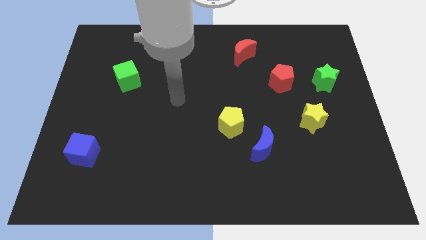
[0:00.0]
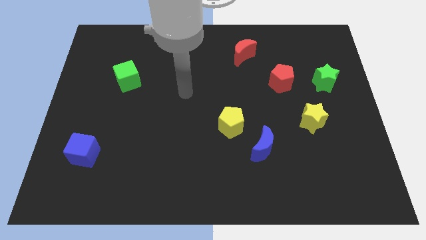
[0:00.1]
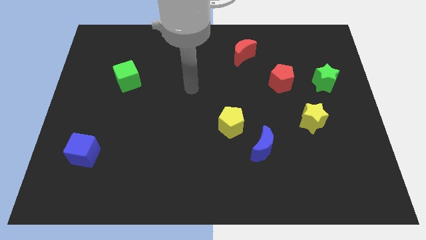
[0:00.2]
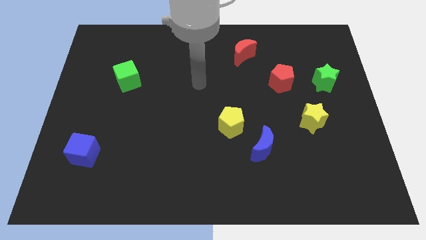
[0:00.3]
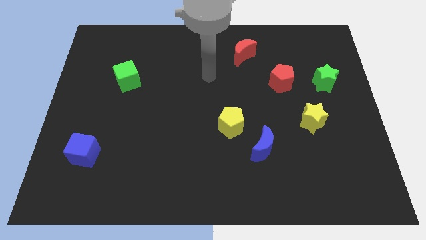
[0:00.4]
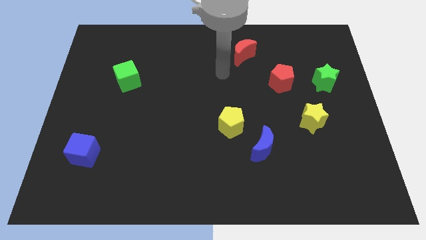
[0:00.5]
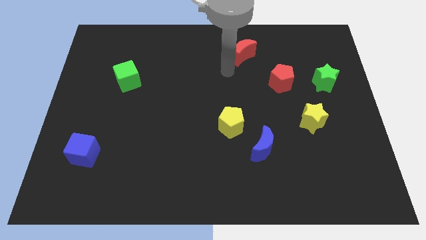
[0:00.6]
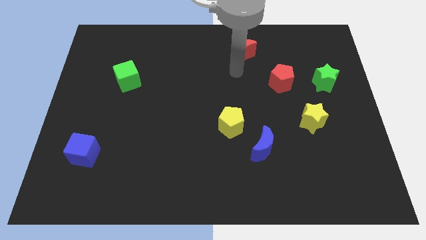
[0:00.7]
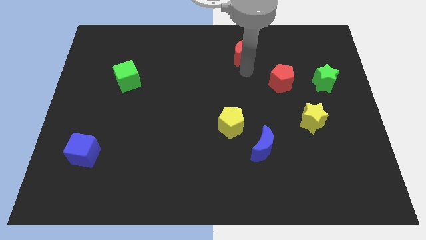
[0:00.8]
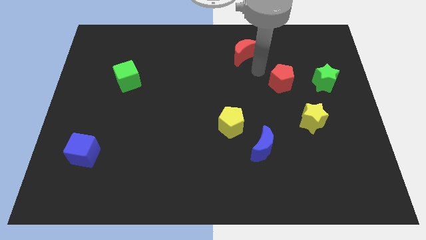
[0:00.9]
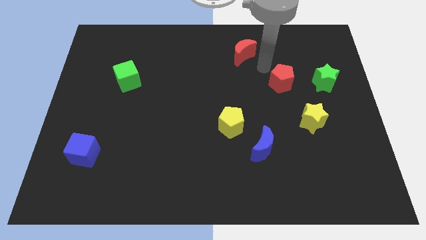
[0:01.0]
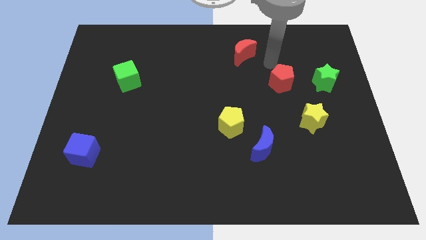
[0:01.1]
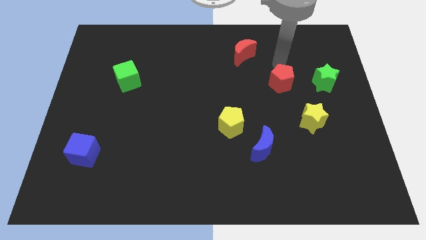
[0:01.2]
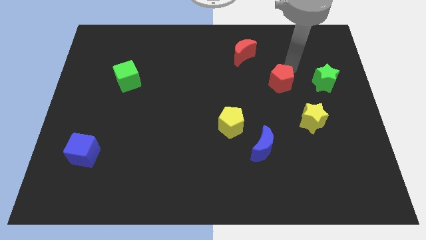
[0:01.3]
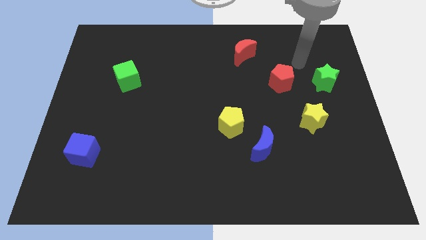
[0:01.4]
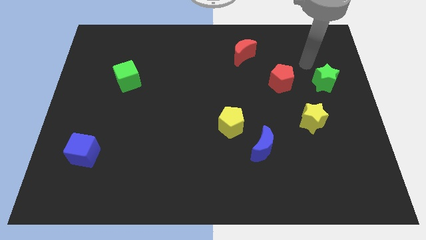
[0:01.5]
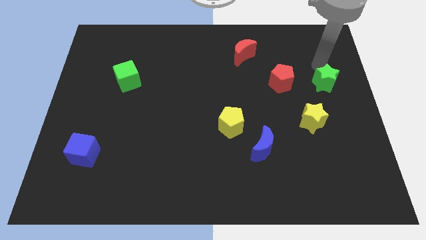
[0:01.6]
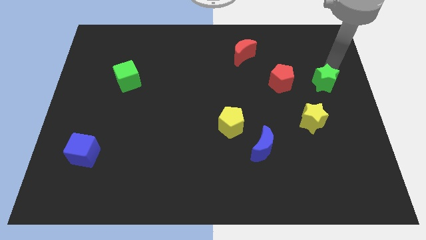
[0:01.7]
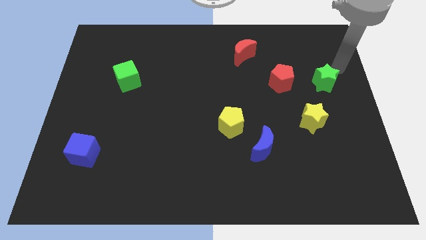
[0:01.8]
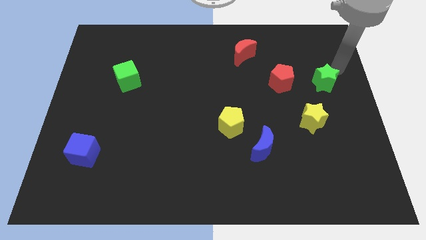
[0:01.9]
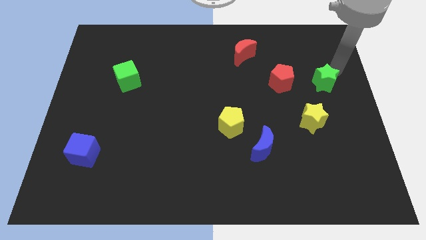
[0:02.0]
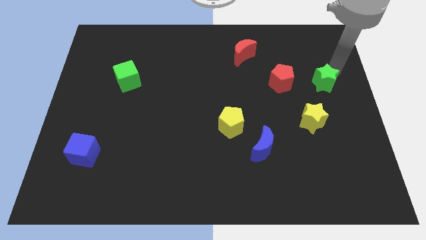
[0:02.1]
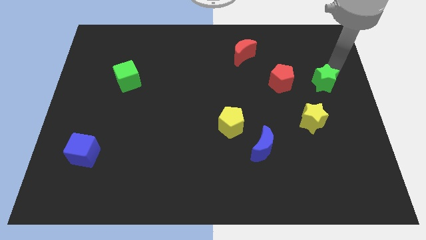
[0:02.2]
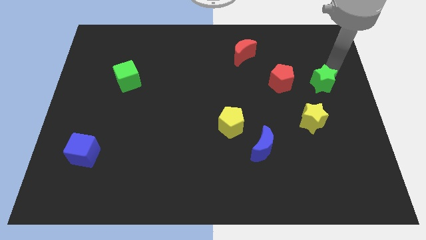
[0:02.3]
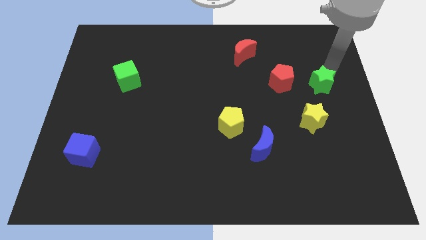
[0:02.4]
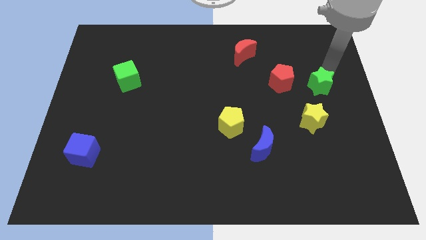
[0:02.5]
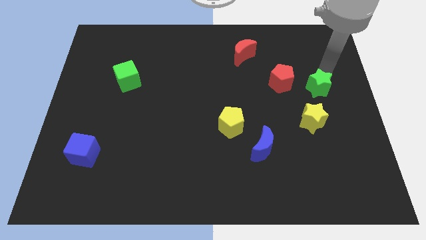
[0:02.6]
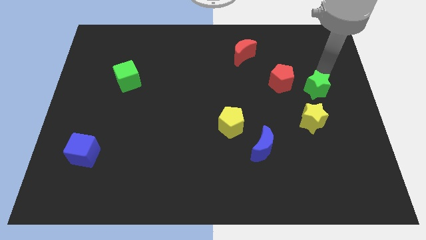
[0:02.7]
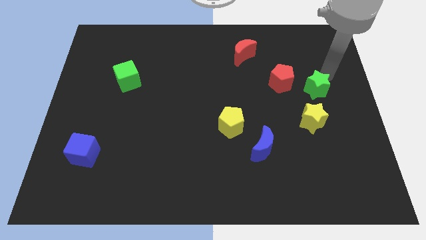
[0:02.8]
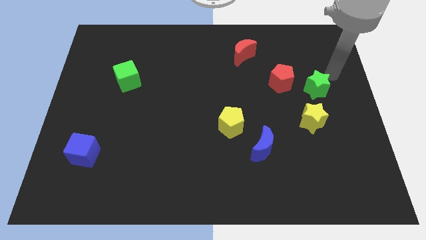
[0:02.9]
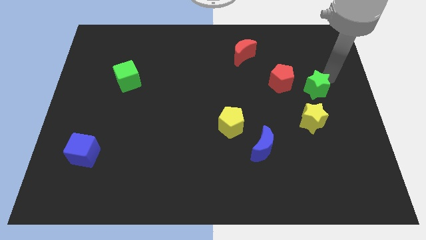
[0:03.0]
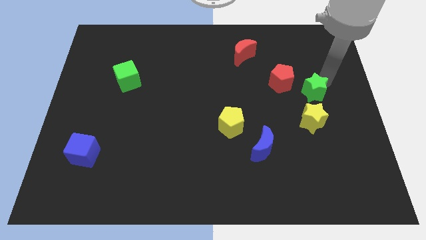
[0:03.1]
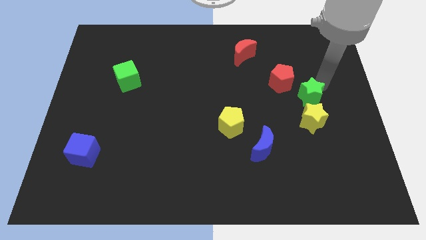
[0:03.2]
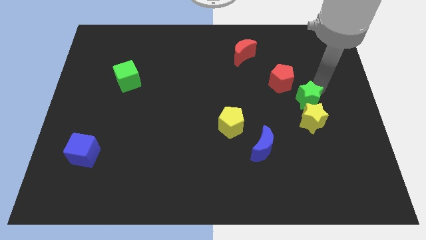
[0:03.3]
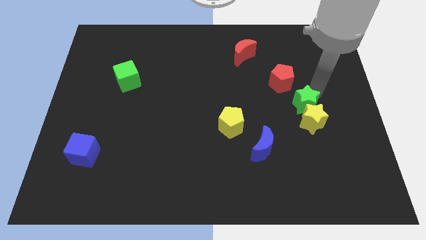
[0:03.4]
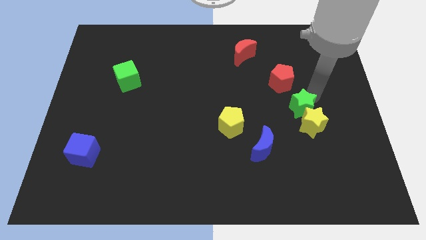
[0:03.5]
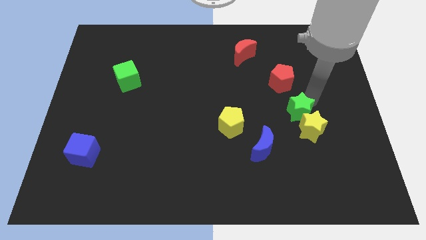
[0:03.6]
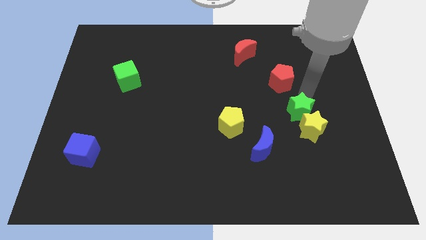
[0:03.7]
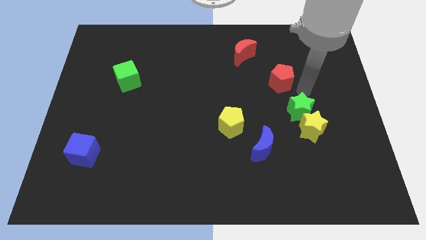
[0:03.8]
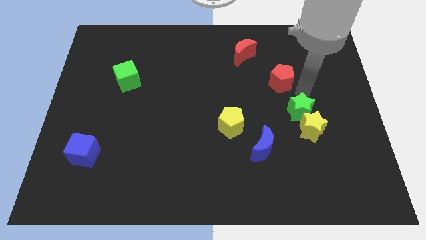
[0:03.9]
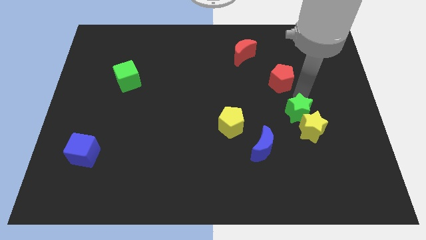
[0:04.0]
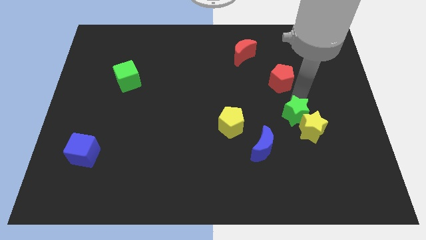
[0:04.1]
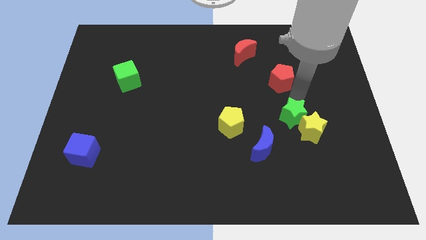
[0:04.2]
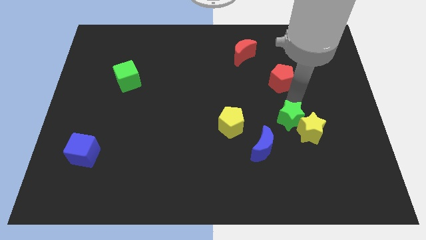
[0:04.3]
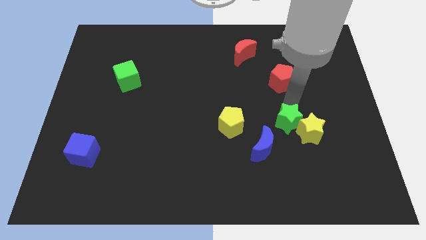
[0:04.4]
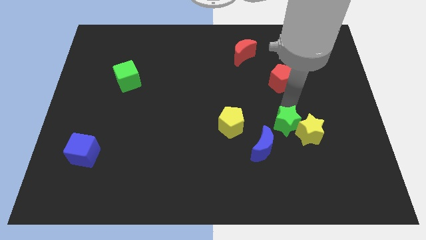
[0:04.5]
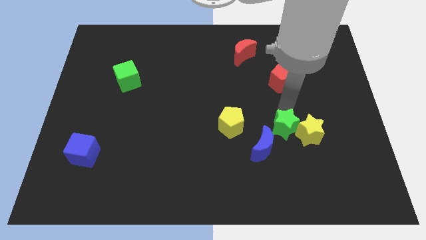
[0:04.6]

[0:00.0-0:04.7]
push the green star to the bottom left side of the yellow star

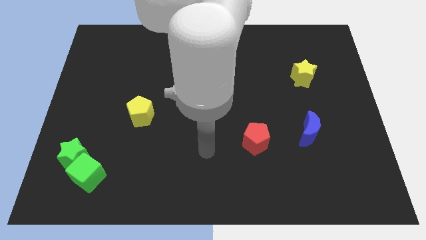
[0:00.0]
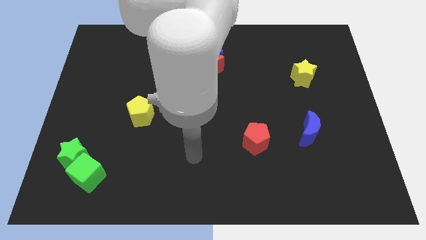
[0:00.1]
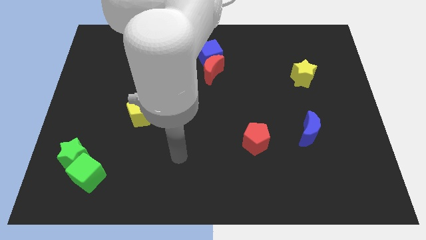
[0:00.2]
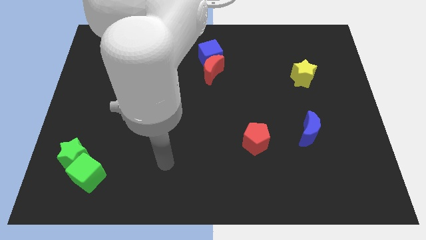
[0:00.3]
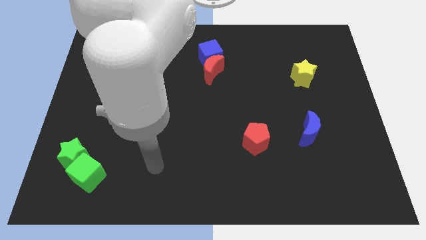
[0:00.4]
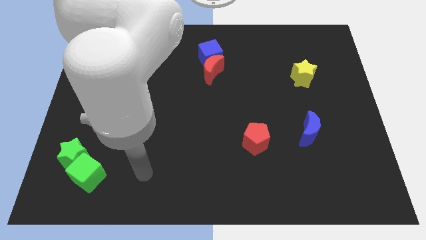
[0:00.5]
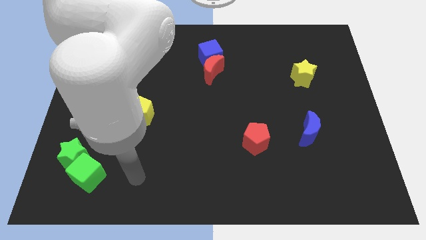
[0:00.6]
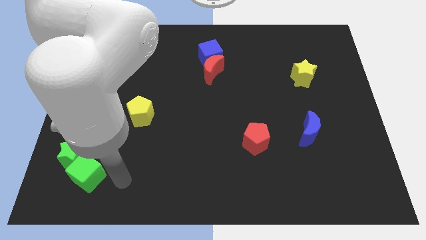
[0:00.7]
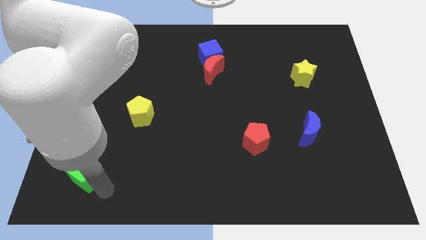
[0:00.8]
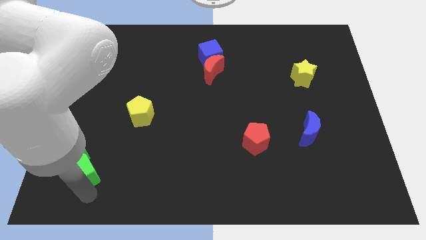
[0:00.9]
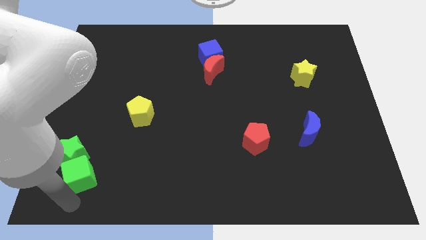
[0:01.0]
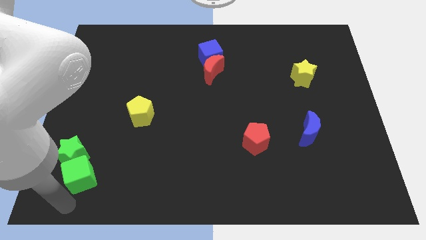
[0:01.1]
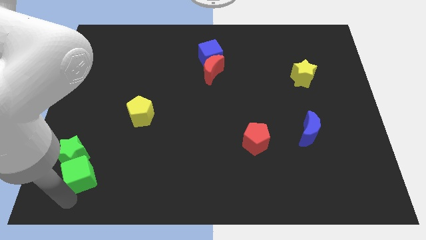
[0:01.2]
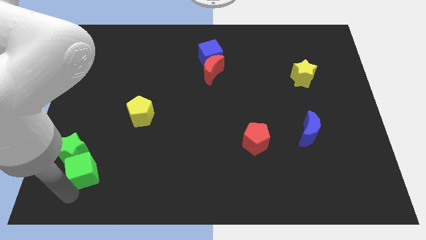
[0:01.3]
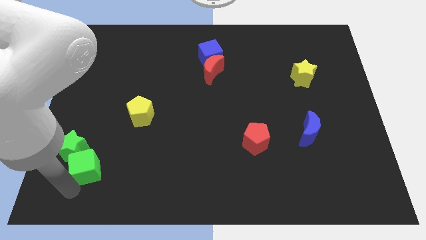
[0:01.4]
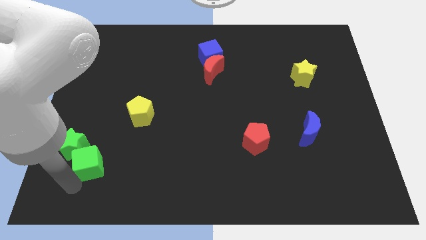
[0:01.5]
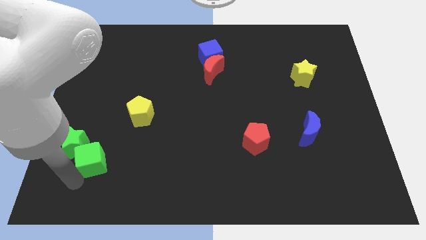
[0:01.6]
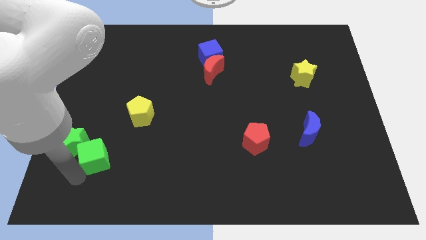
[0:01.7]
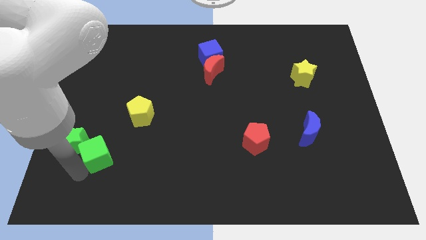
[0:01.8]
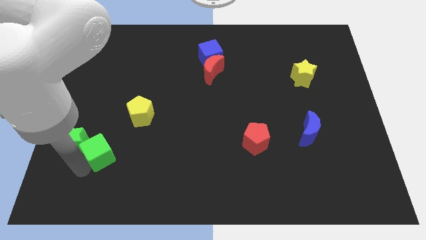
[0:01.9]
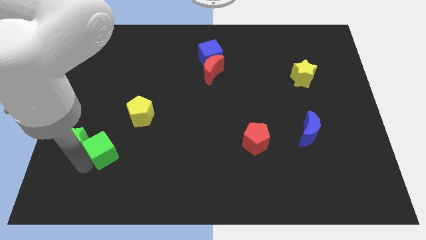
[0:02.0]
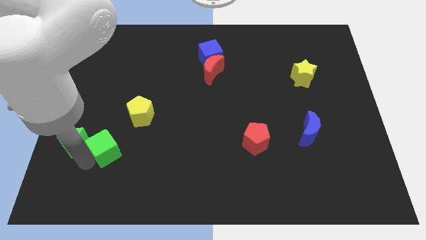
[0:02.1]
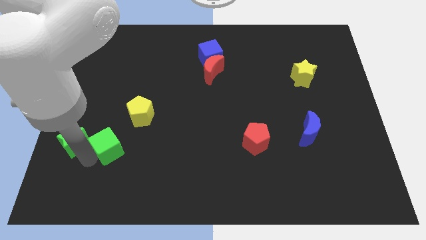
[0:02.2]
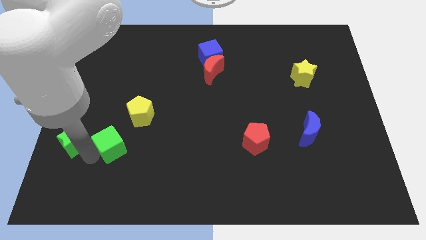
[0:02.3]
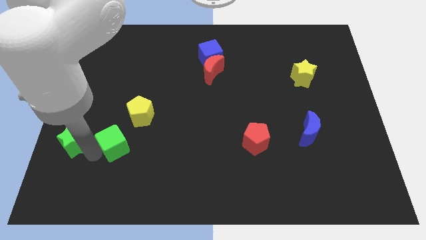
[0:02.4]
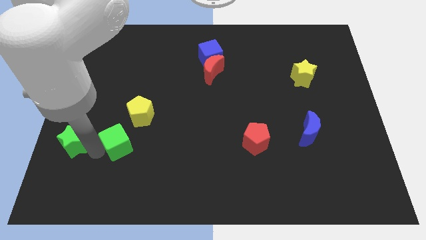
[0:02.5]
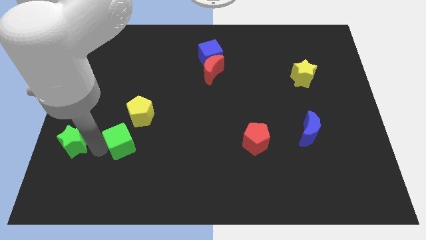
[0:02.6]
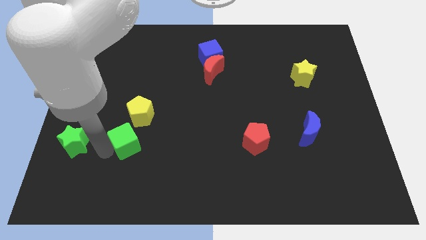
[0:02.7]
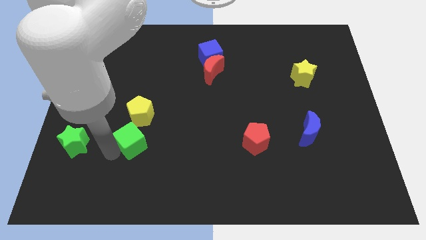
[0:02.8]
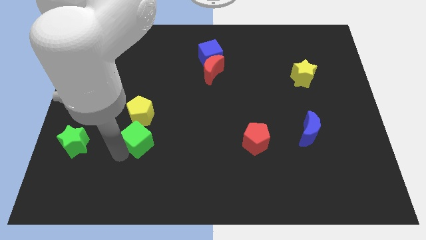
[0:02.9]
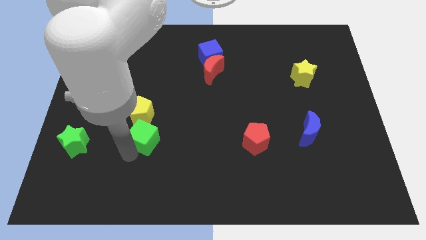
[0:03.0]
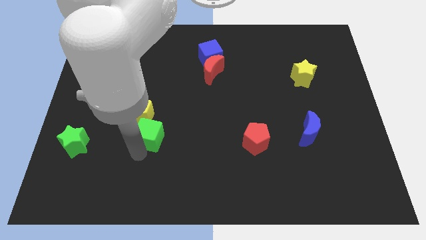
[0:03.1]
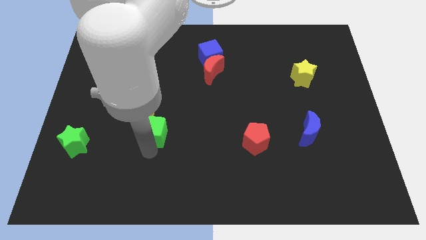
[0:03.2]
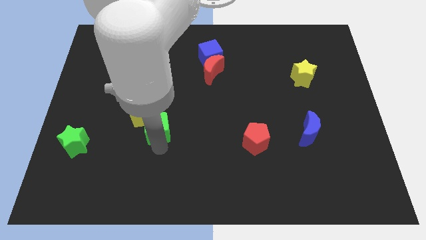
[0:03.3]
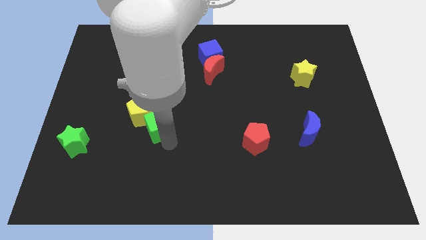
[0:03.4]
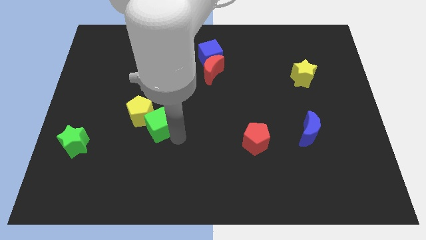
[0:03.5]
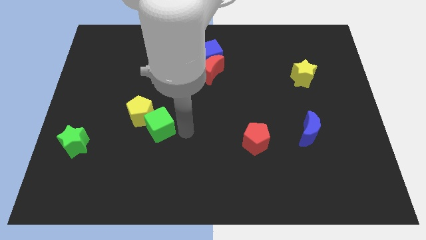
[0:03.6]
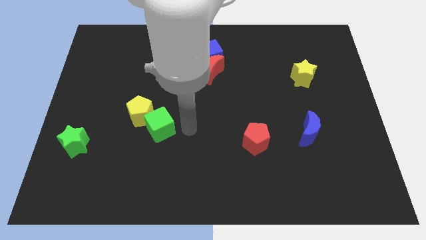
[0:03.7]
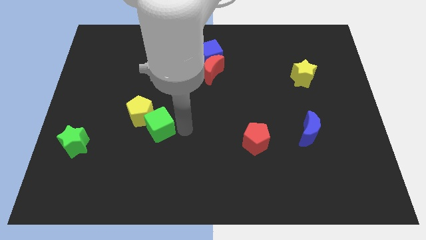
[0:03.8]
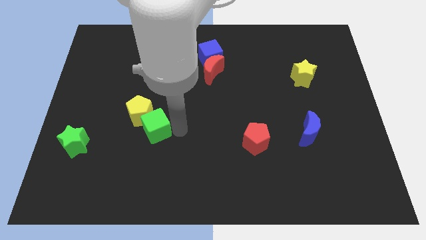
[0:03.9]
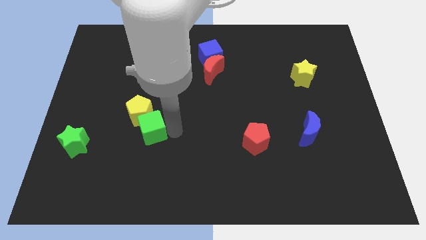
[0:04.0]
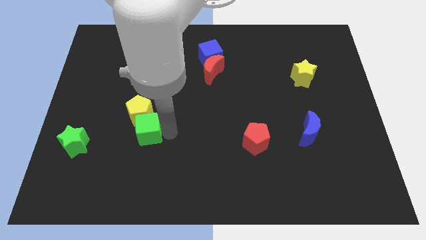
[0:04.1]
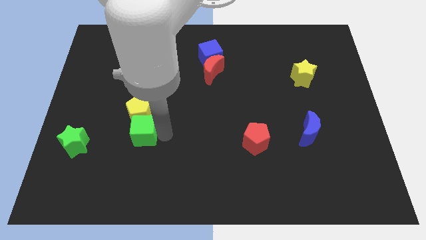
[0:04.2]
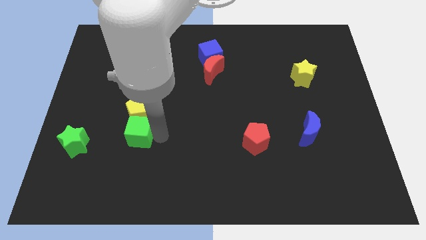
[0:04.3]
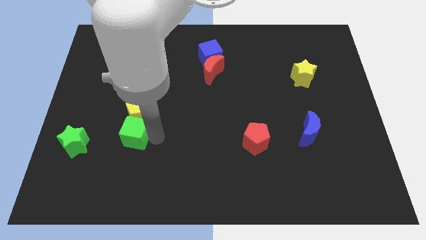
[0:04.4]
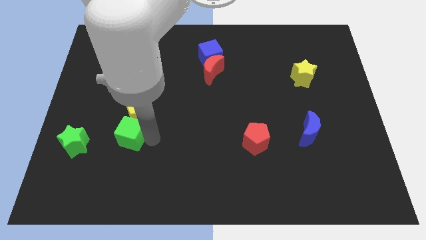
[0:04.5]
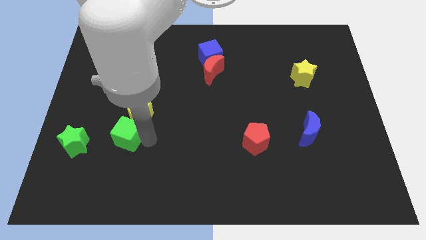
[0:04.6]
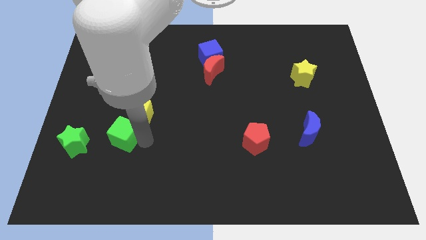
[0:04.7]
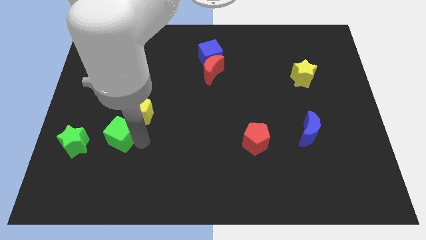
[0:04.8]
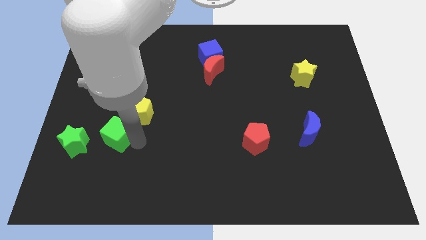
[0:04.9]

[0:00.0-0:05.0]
put the green cube diagonally up and to the right of the green star
